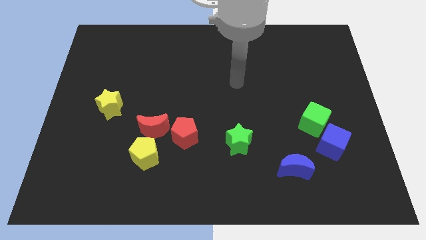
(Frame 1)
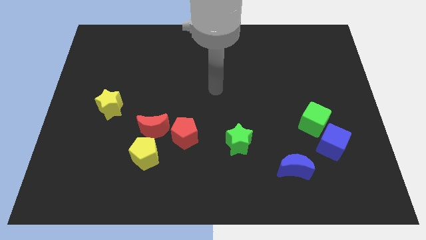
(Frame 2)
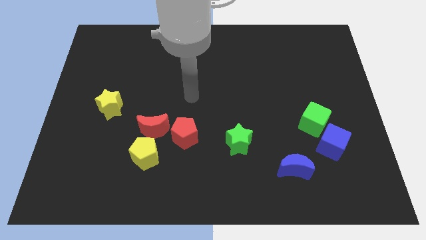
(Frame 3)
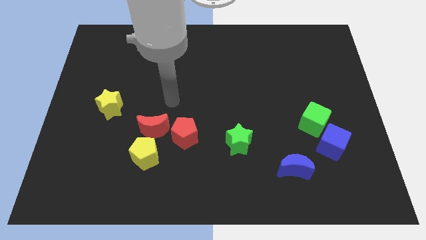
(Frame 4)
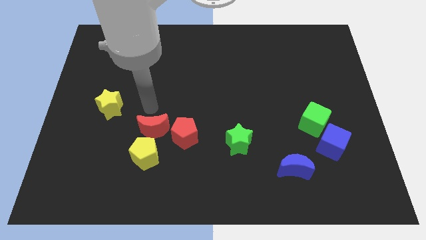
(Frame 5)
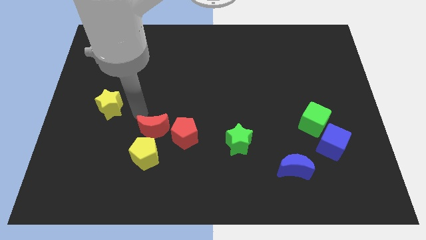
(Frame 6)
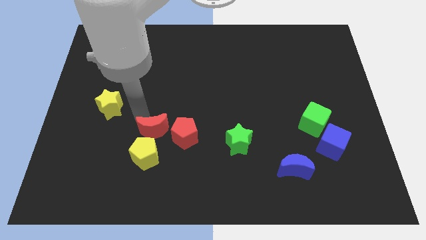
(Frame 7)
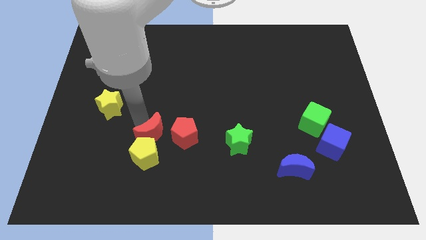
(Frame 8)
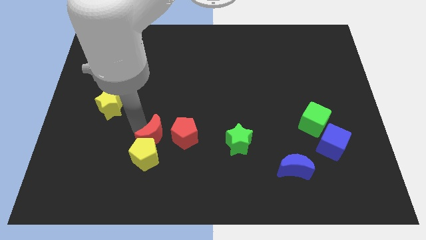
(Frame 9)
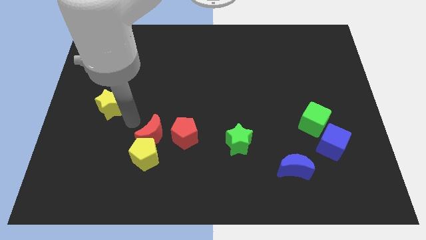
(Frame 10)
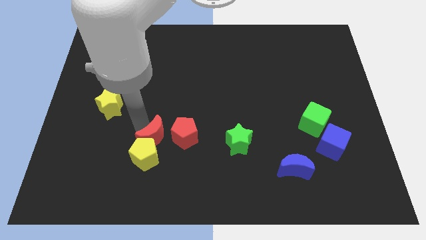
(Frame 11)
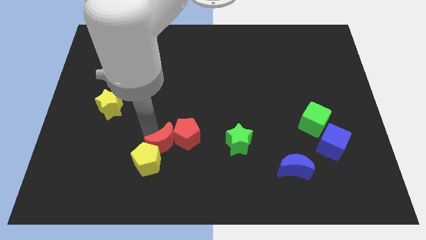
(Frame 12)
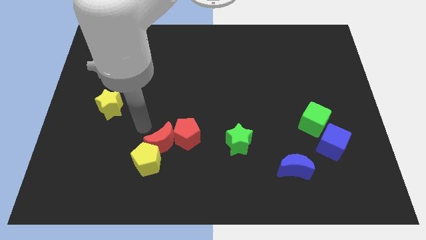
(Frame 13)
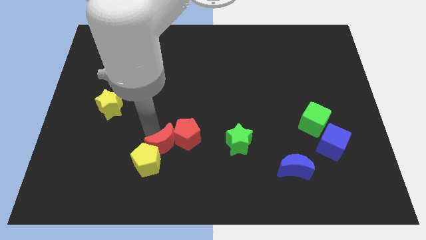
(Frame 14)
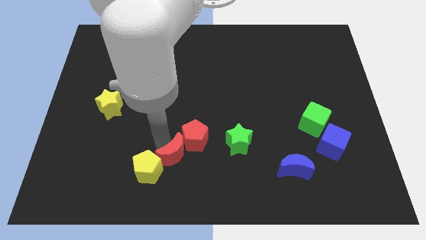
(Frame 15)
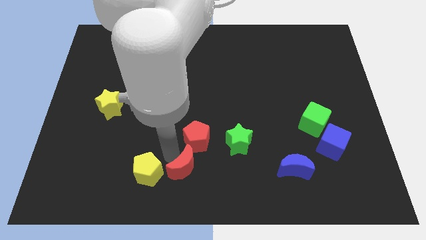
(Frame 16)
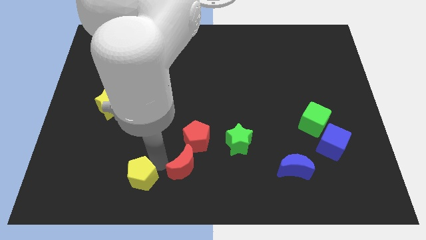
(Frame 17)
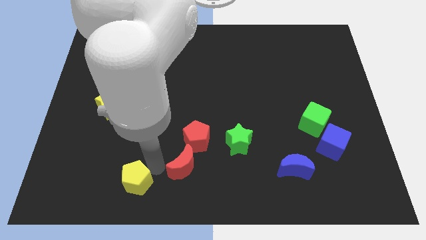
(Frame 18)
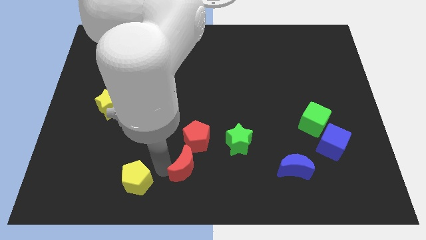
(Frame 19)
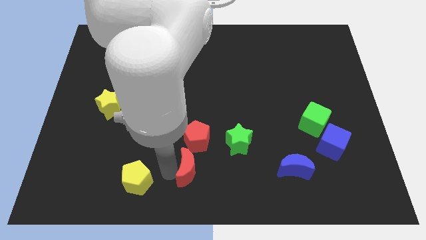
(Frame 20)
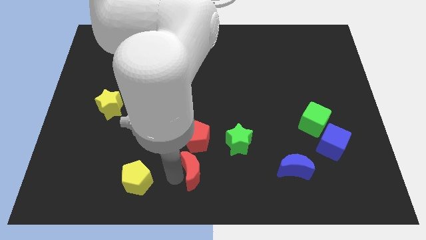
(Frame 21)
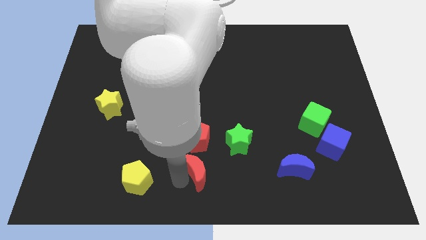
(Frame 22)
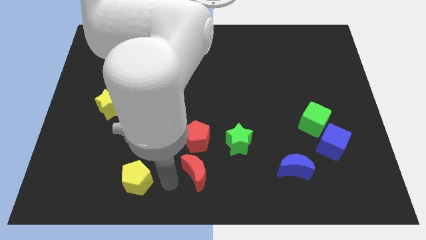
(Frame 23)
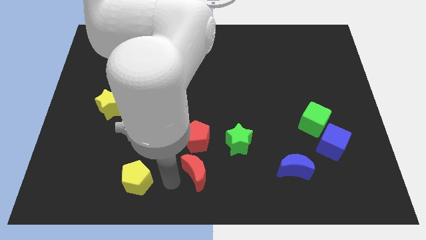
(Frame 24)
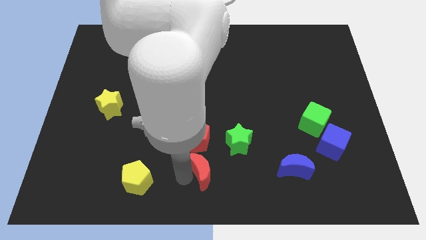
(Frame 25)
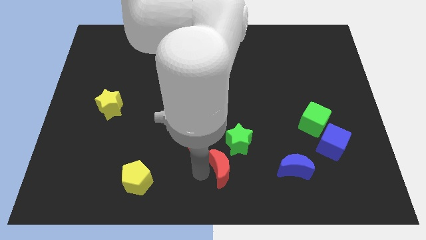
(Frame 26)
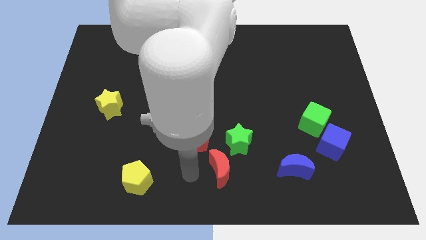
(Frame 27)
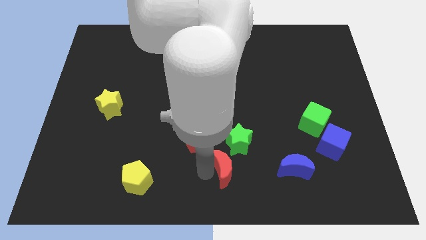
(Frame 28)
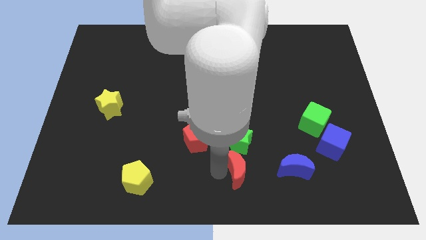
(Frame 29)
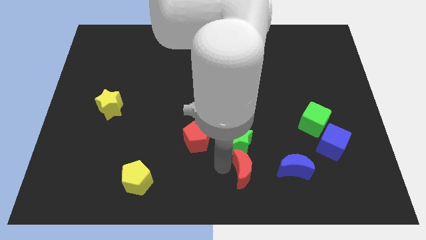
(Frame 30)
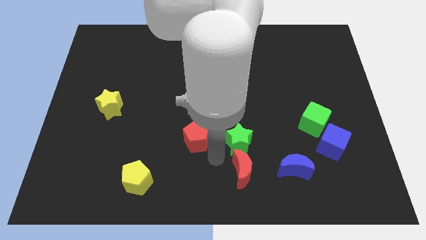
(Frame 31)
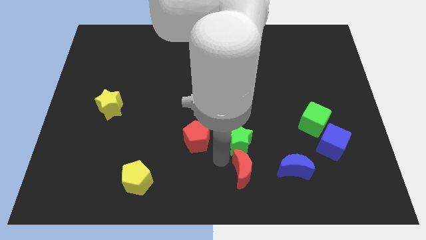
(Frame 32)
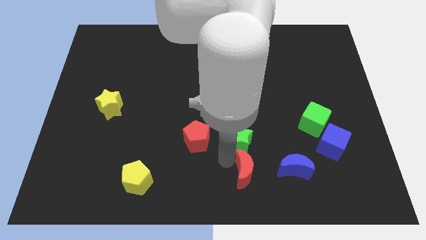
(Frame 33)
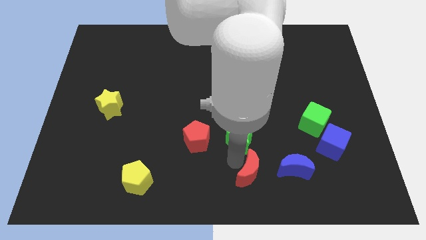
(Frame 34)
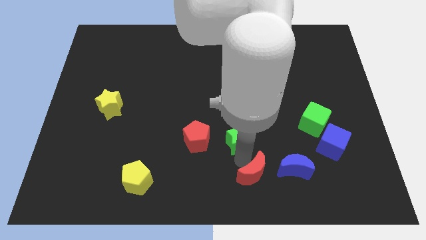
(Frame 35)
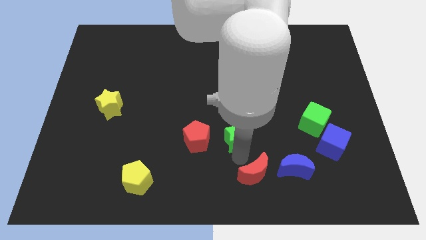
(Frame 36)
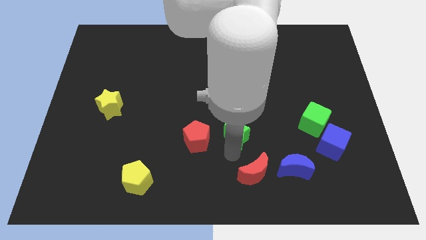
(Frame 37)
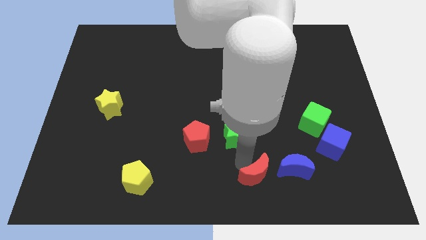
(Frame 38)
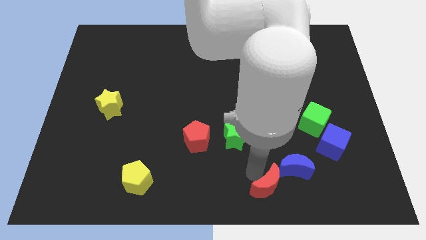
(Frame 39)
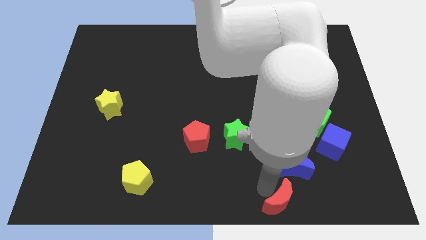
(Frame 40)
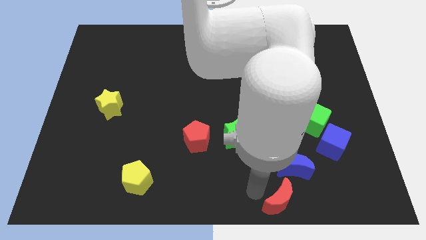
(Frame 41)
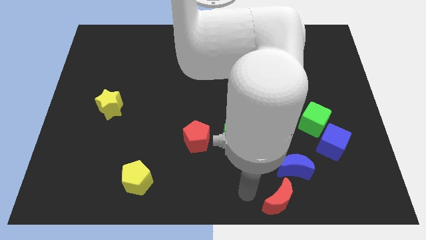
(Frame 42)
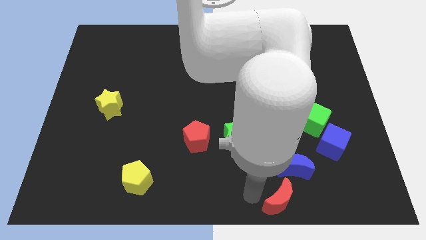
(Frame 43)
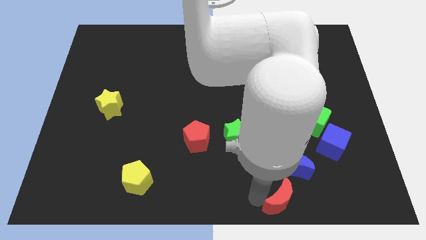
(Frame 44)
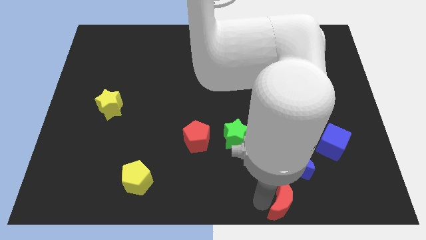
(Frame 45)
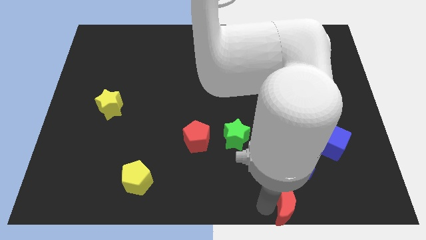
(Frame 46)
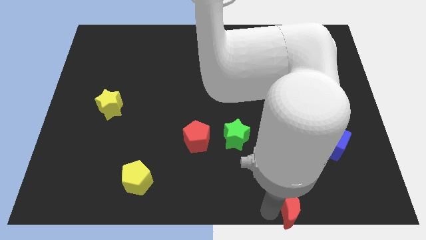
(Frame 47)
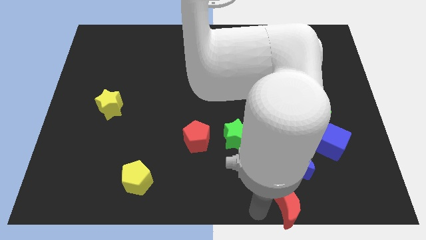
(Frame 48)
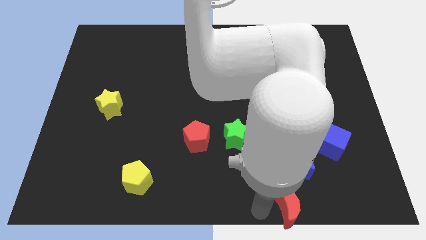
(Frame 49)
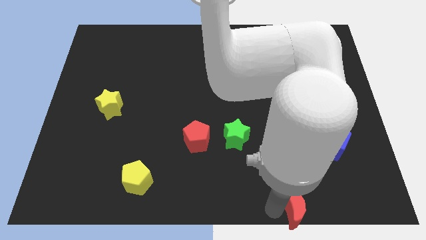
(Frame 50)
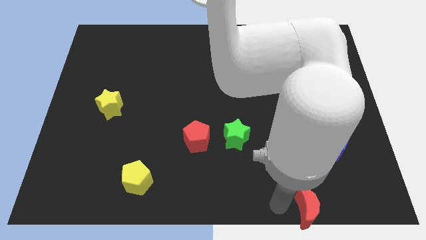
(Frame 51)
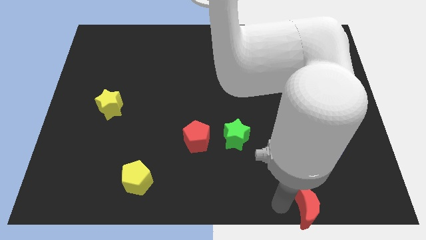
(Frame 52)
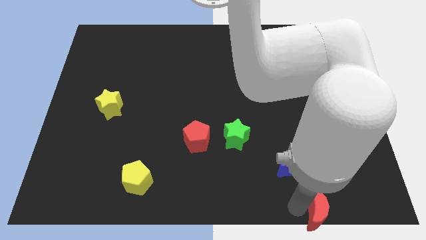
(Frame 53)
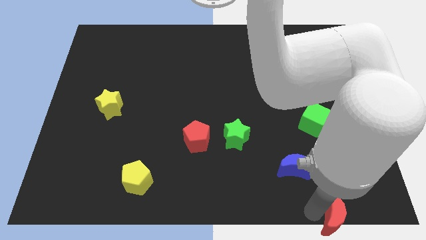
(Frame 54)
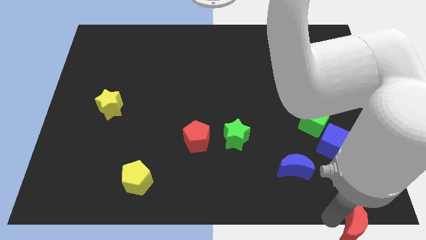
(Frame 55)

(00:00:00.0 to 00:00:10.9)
push the red moon to the lower right corner

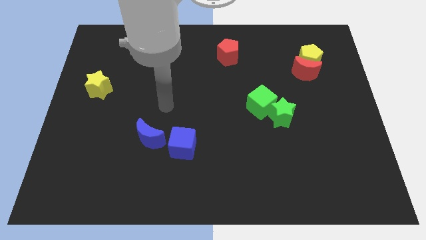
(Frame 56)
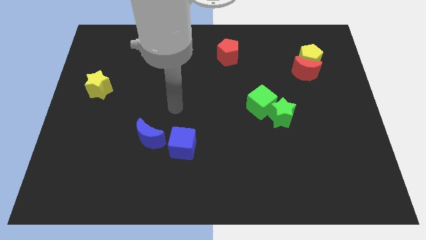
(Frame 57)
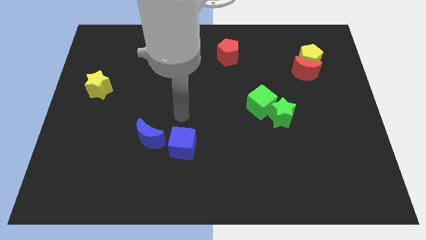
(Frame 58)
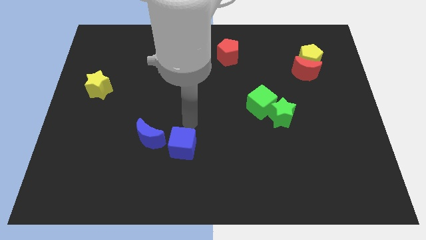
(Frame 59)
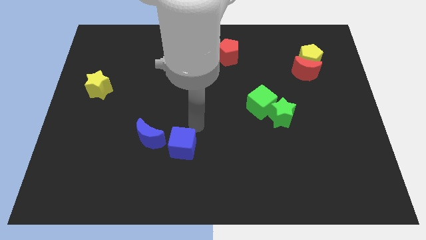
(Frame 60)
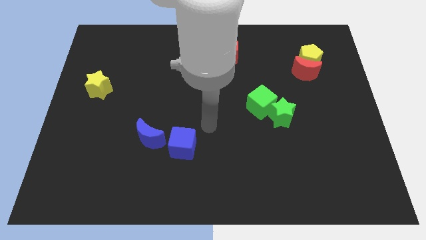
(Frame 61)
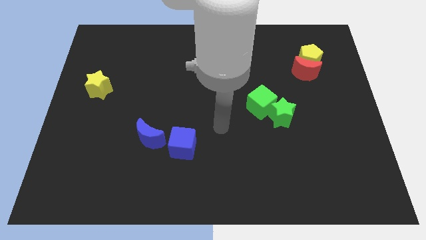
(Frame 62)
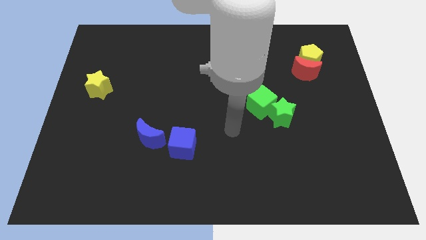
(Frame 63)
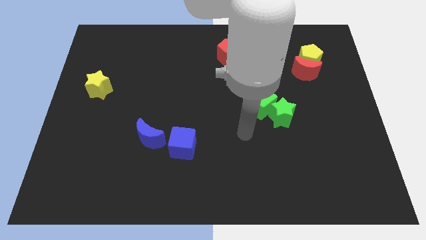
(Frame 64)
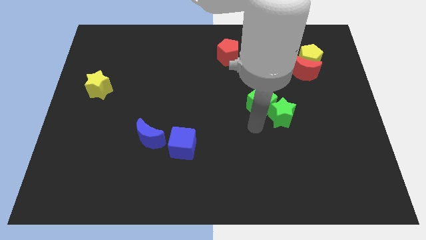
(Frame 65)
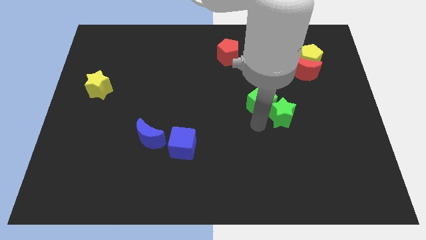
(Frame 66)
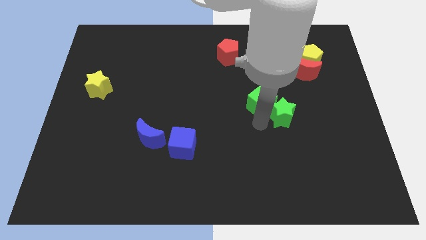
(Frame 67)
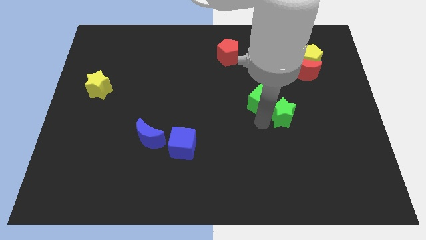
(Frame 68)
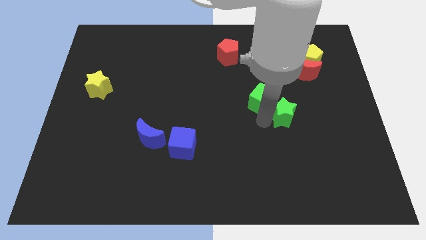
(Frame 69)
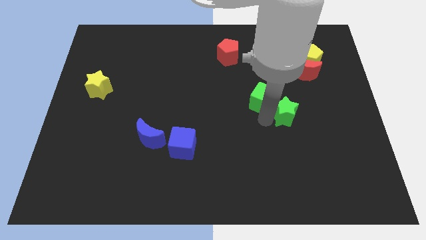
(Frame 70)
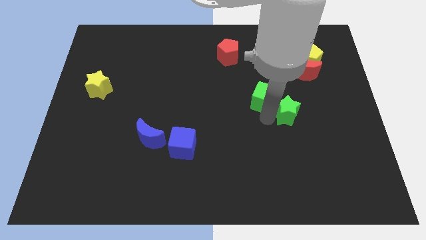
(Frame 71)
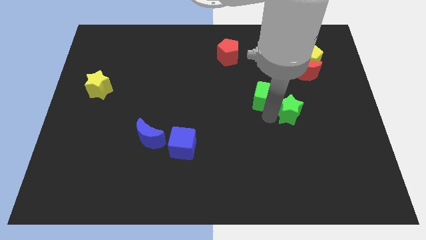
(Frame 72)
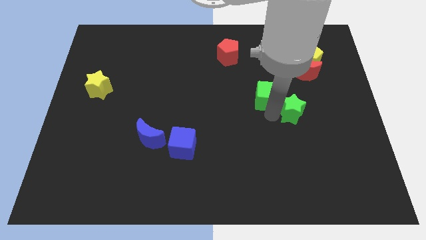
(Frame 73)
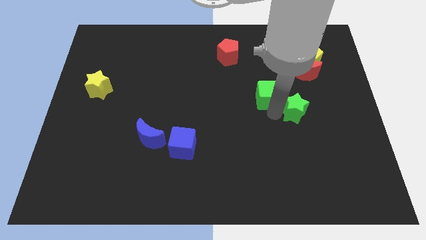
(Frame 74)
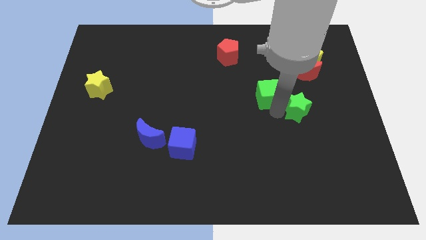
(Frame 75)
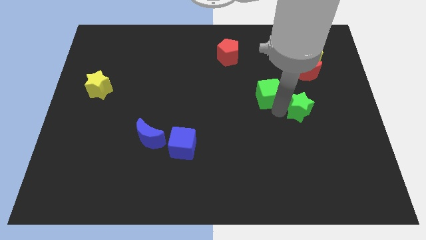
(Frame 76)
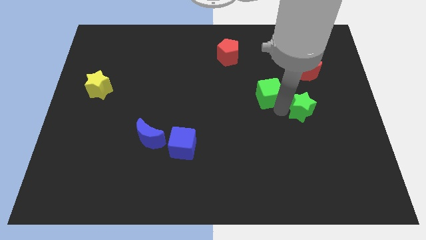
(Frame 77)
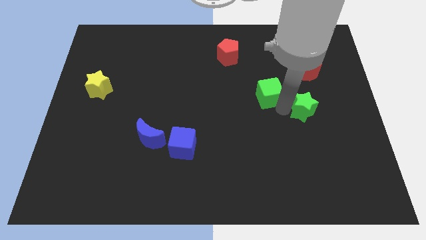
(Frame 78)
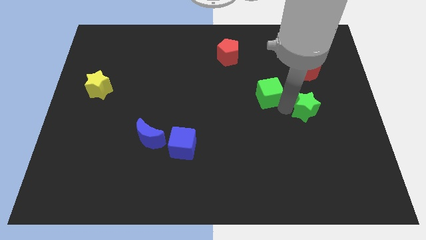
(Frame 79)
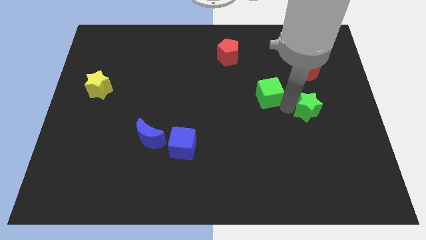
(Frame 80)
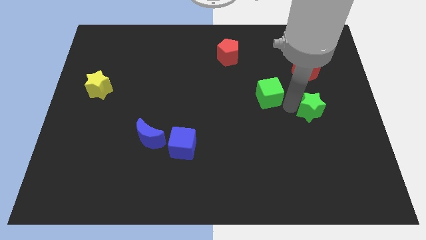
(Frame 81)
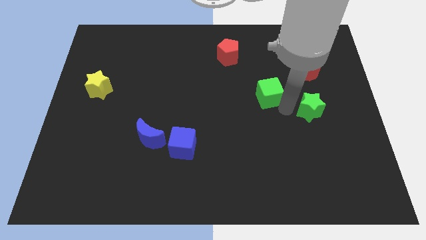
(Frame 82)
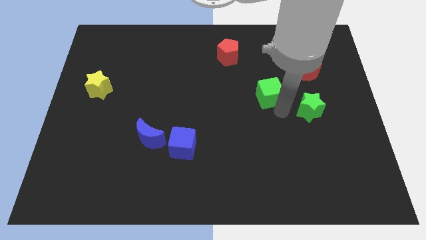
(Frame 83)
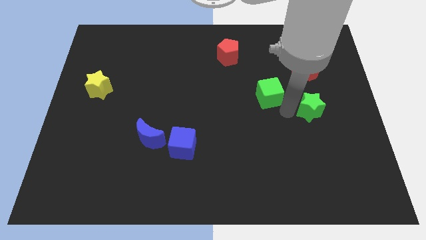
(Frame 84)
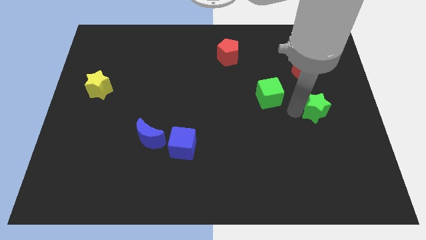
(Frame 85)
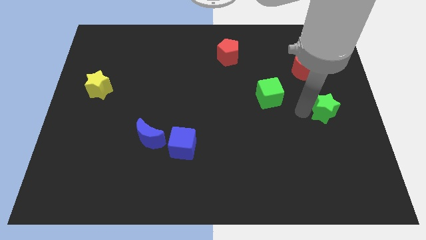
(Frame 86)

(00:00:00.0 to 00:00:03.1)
put the green star to the right side
